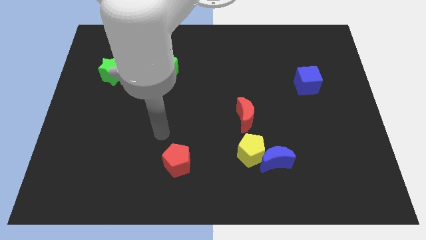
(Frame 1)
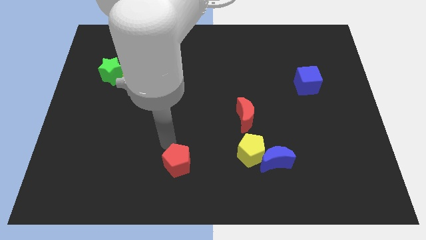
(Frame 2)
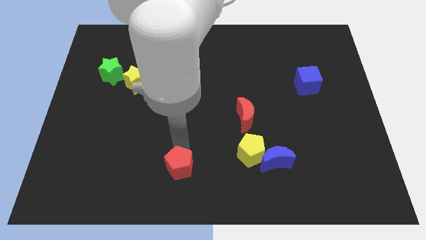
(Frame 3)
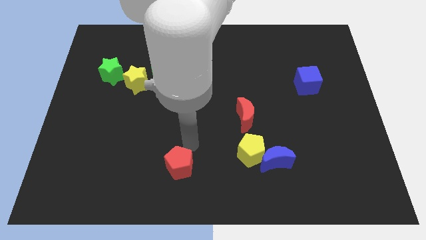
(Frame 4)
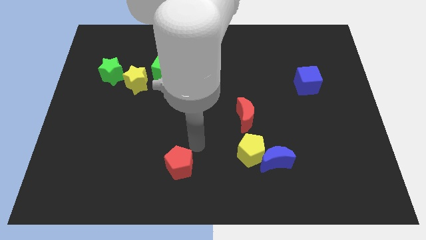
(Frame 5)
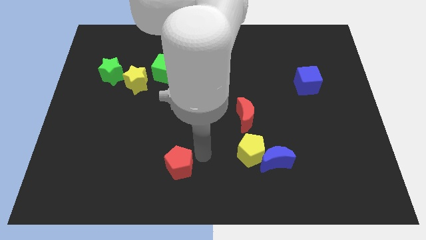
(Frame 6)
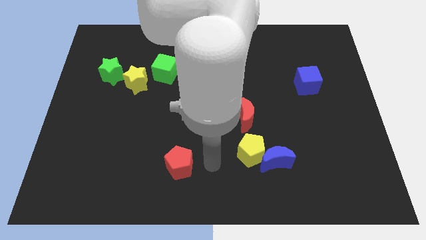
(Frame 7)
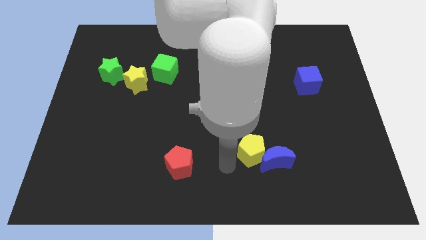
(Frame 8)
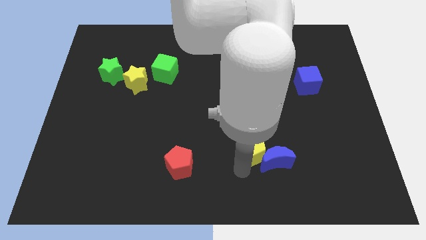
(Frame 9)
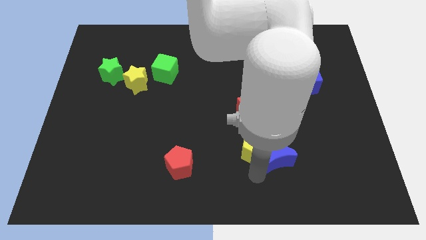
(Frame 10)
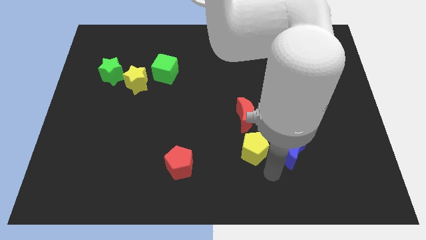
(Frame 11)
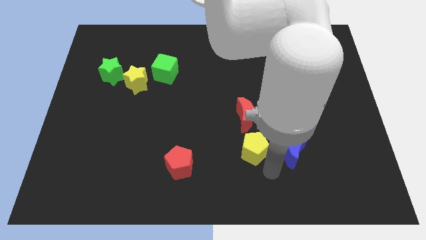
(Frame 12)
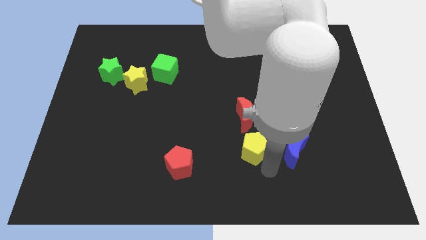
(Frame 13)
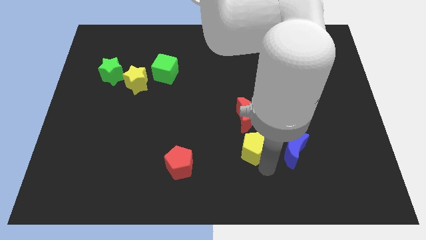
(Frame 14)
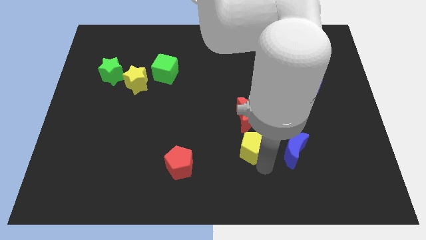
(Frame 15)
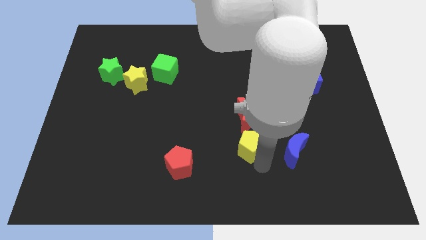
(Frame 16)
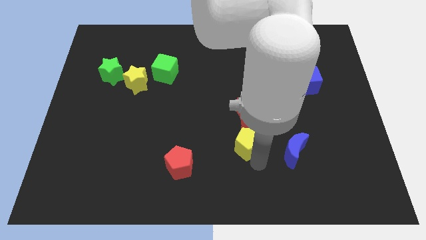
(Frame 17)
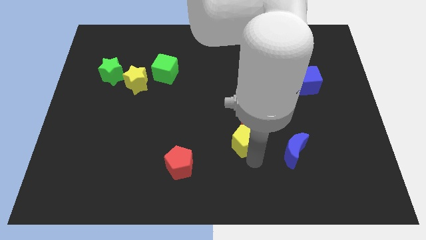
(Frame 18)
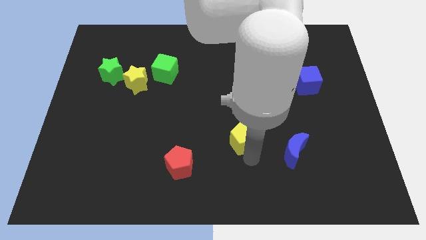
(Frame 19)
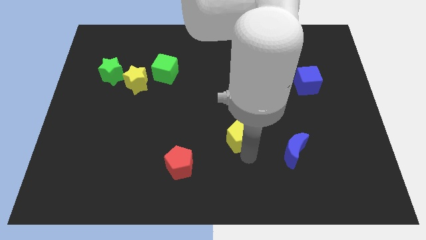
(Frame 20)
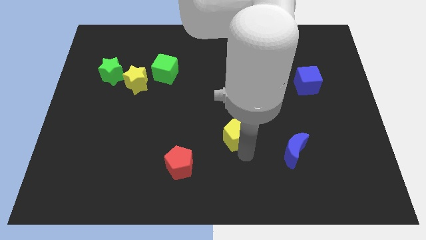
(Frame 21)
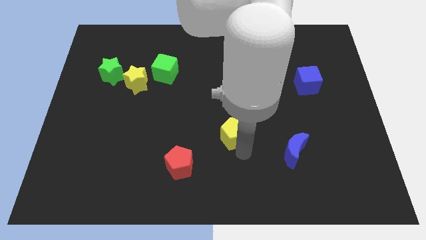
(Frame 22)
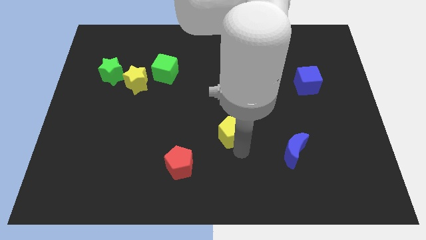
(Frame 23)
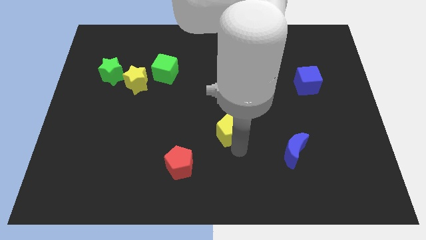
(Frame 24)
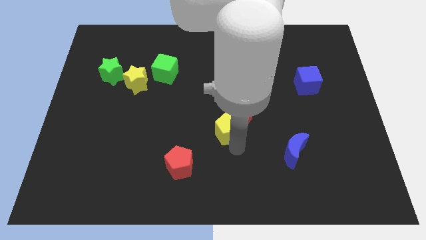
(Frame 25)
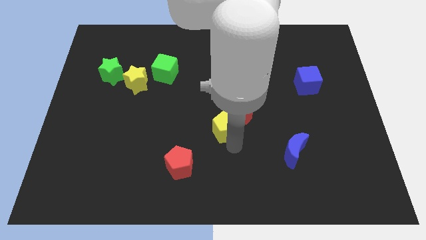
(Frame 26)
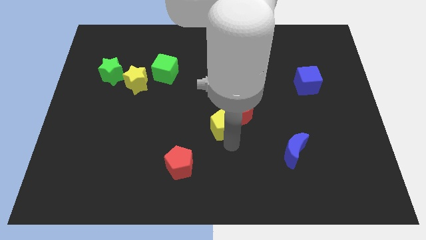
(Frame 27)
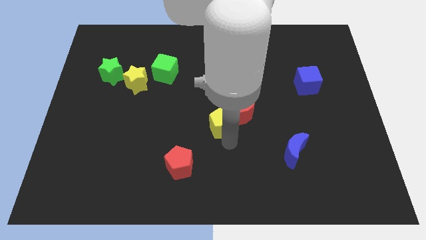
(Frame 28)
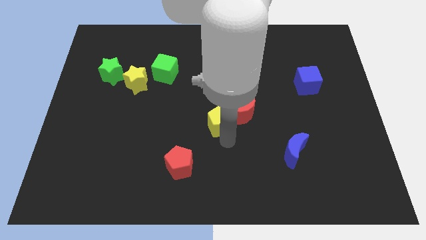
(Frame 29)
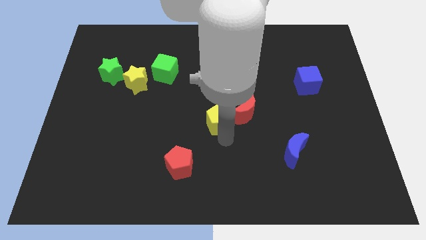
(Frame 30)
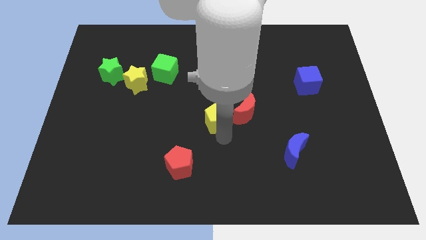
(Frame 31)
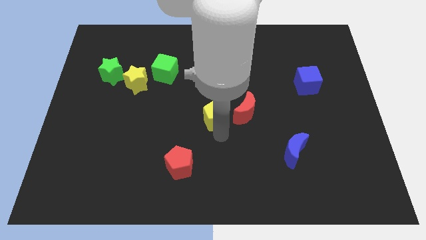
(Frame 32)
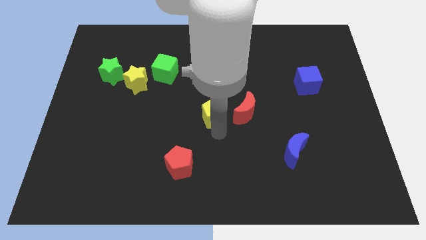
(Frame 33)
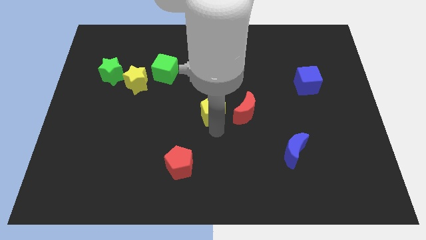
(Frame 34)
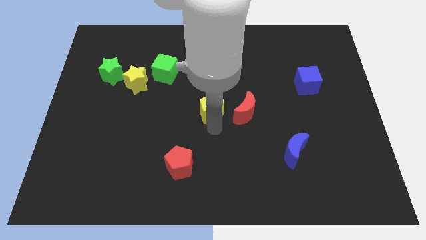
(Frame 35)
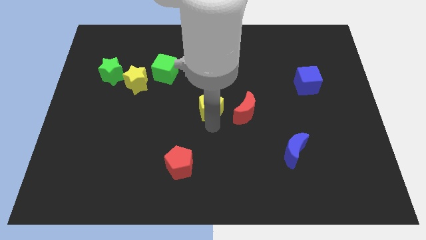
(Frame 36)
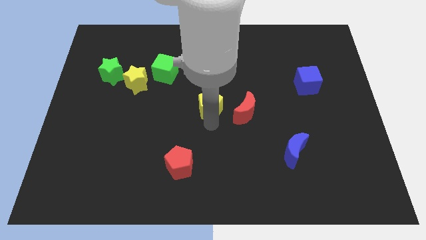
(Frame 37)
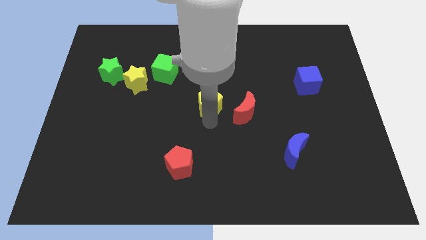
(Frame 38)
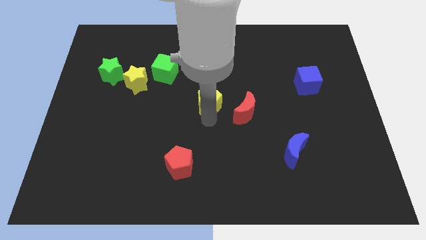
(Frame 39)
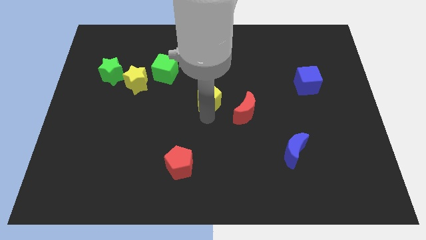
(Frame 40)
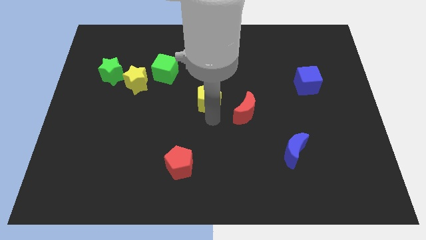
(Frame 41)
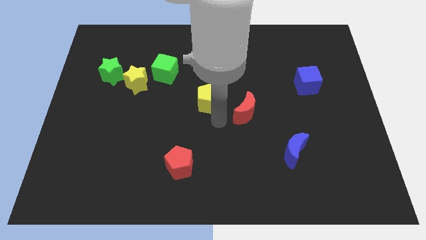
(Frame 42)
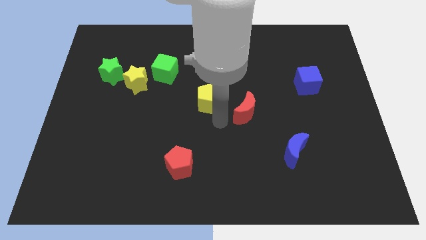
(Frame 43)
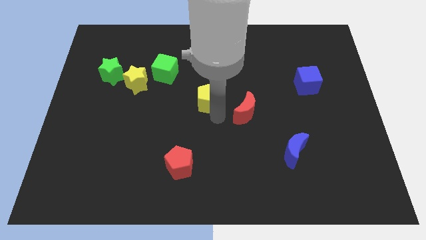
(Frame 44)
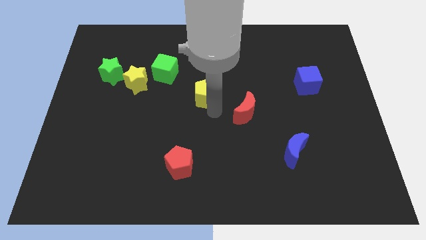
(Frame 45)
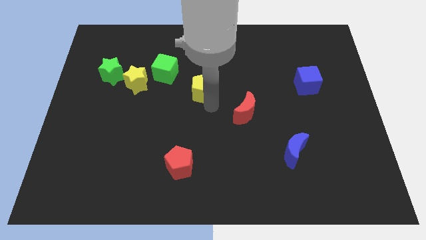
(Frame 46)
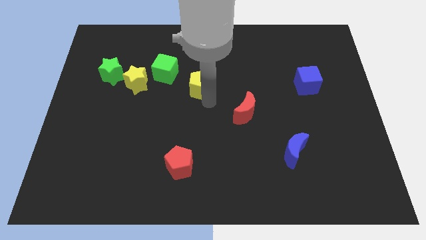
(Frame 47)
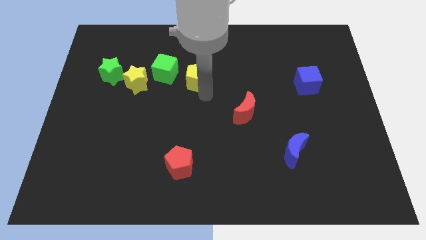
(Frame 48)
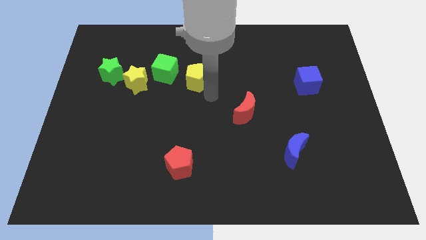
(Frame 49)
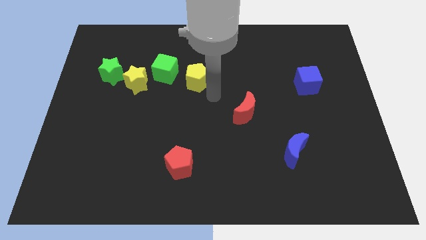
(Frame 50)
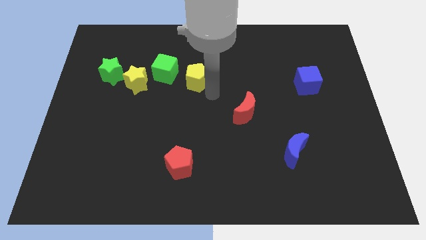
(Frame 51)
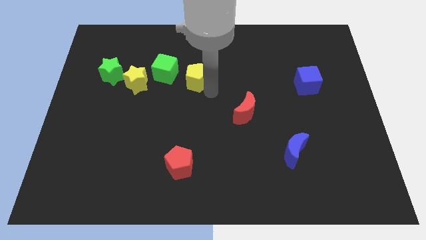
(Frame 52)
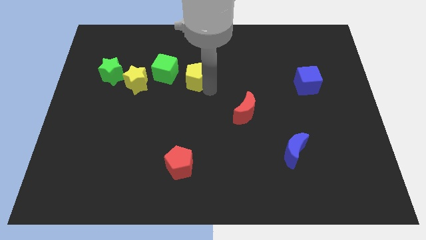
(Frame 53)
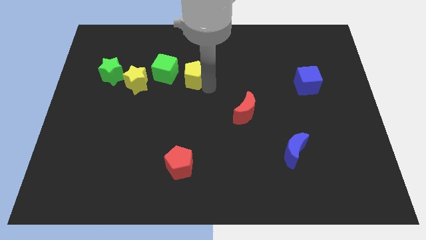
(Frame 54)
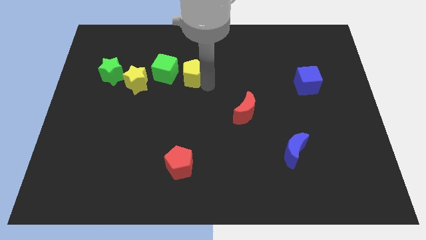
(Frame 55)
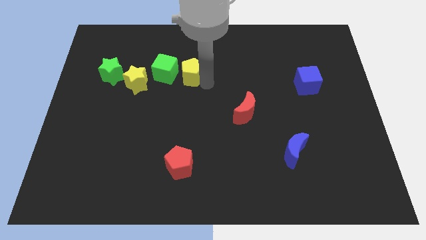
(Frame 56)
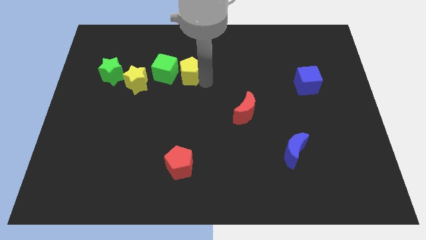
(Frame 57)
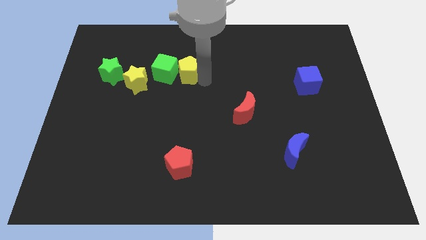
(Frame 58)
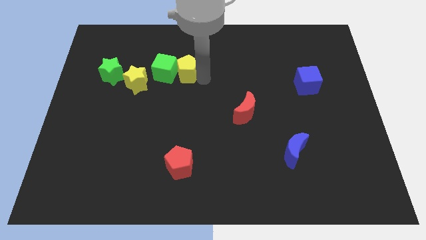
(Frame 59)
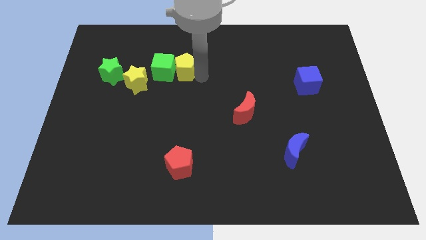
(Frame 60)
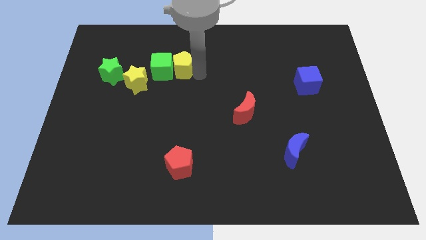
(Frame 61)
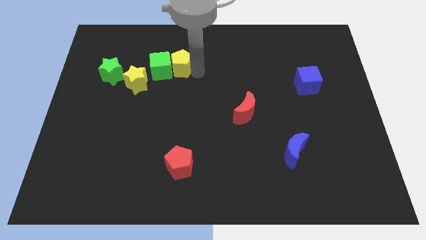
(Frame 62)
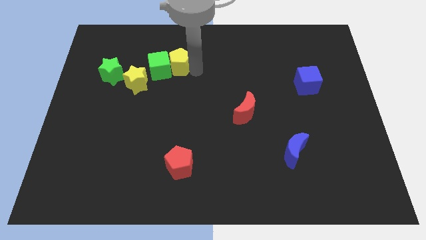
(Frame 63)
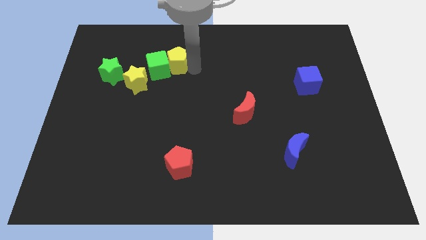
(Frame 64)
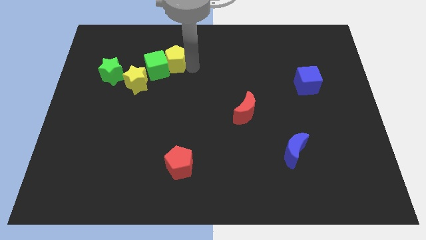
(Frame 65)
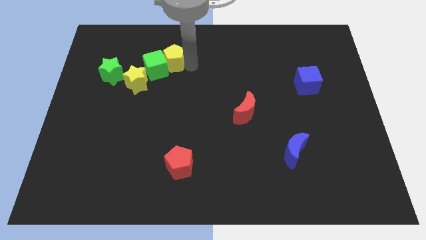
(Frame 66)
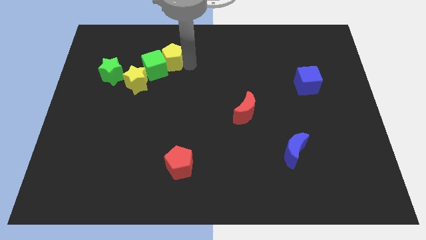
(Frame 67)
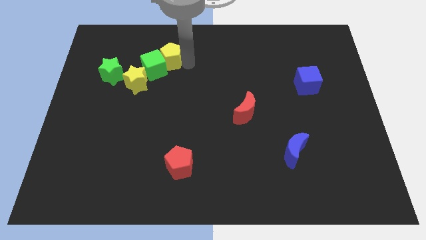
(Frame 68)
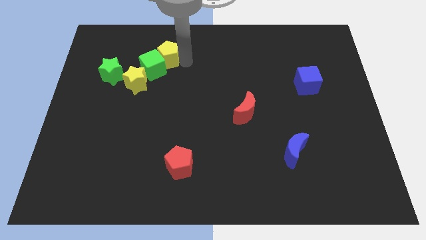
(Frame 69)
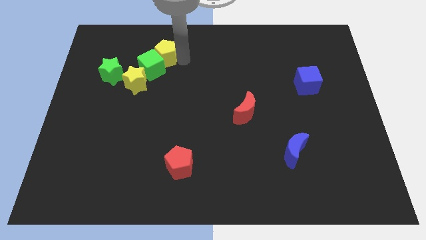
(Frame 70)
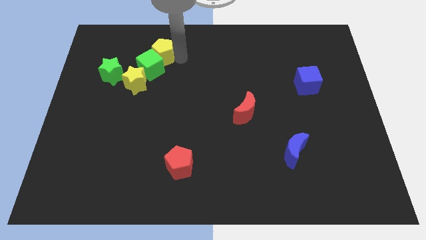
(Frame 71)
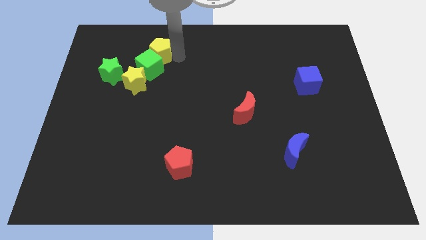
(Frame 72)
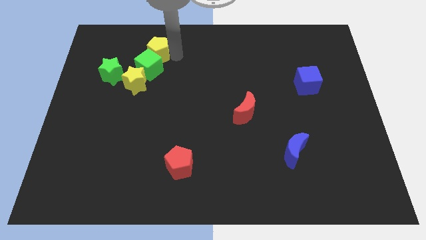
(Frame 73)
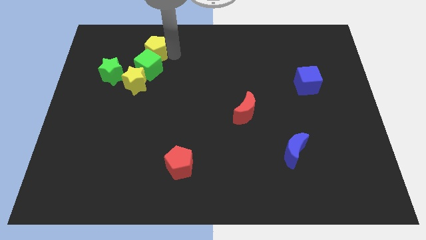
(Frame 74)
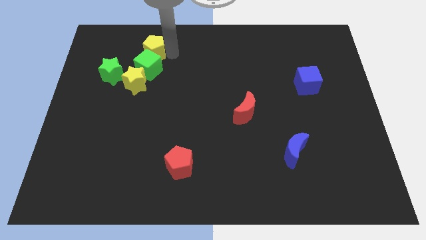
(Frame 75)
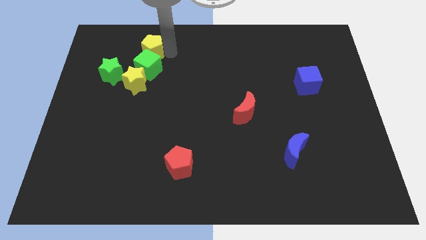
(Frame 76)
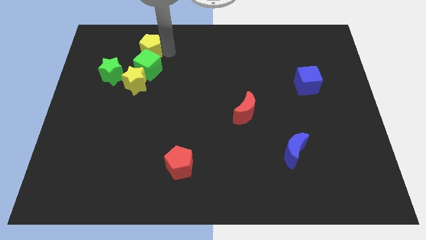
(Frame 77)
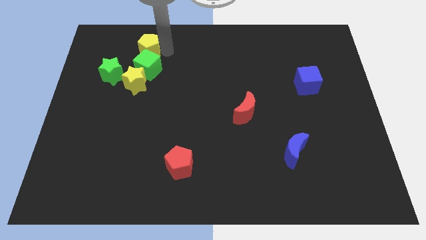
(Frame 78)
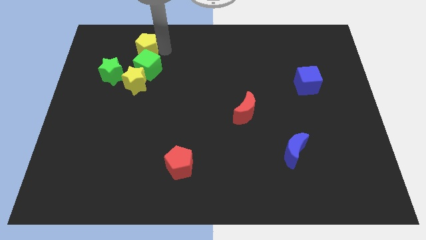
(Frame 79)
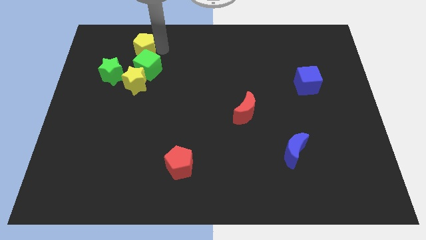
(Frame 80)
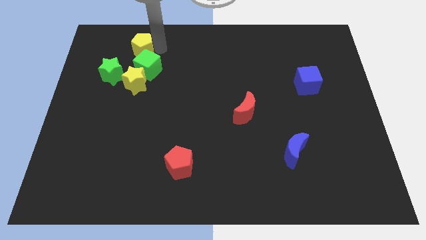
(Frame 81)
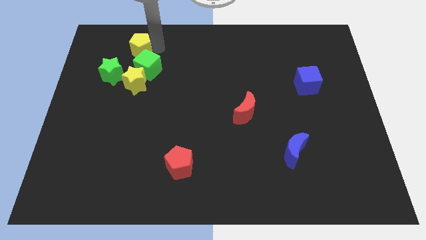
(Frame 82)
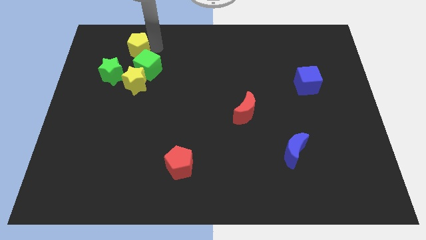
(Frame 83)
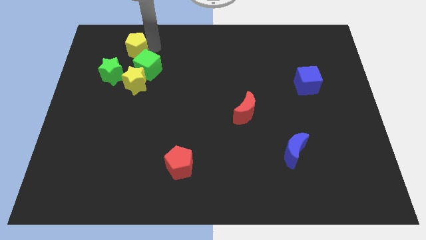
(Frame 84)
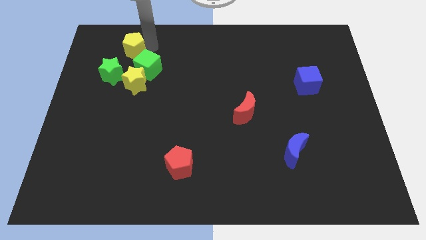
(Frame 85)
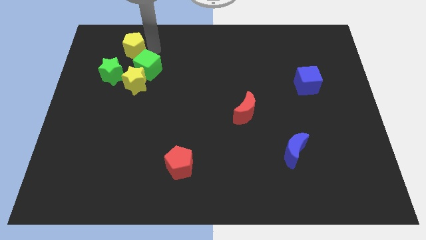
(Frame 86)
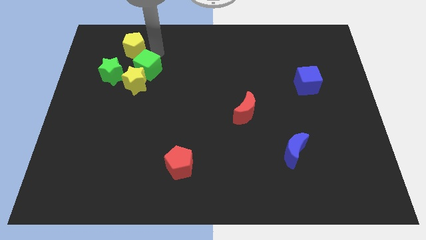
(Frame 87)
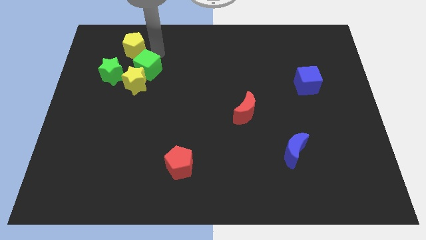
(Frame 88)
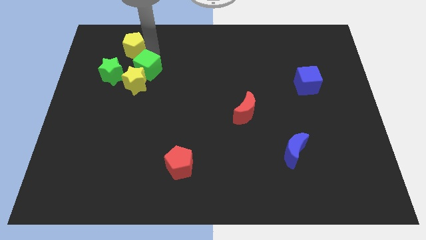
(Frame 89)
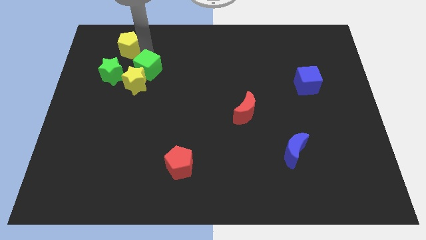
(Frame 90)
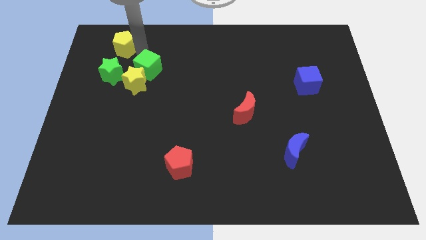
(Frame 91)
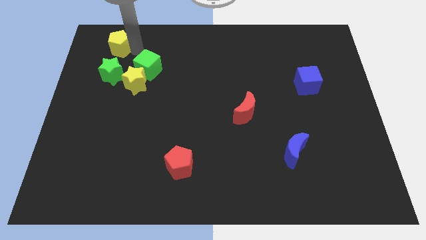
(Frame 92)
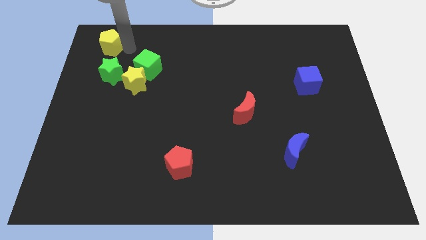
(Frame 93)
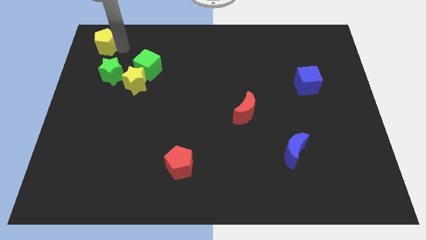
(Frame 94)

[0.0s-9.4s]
push the yellow pentagon to the top left of the board
